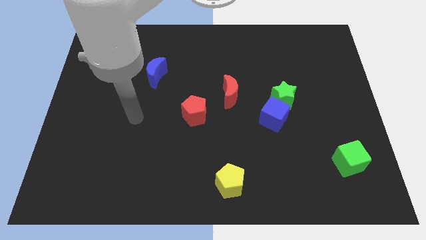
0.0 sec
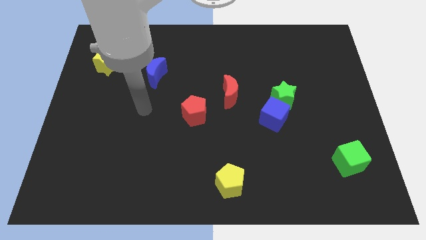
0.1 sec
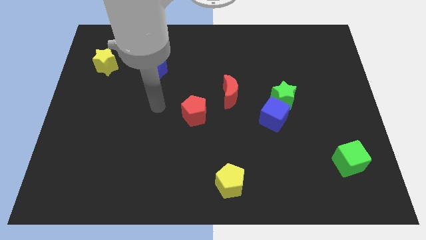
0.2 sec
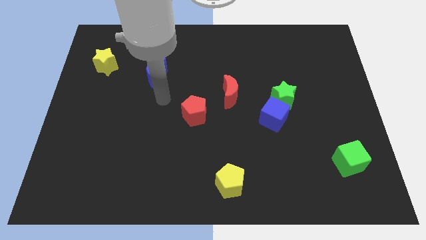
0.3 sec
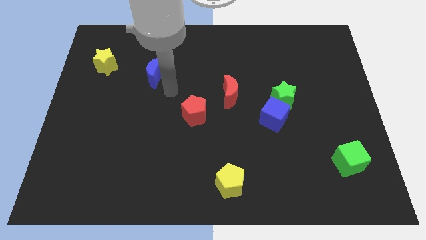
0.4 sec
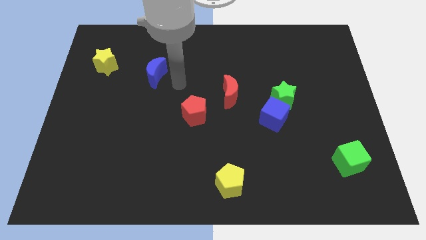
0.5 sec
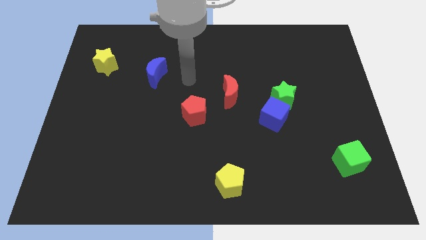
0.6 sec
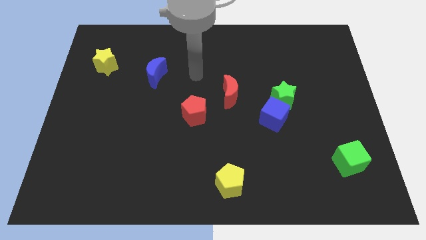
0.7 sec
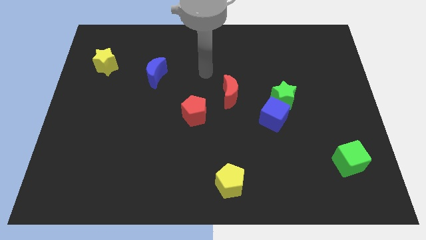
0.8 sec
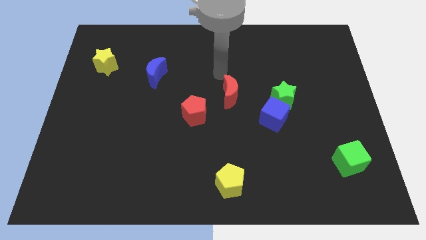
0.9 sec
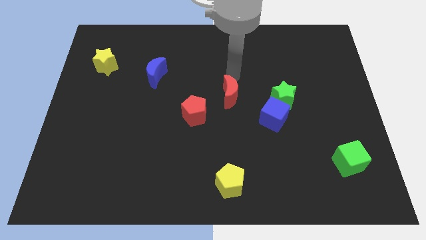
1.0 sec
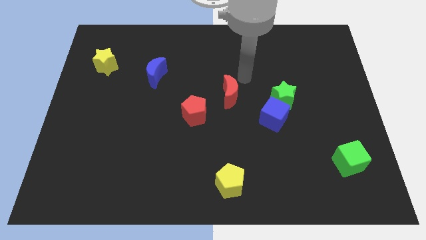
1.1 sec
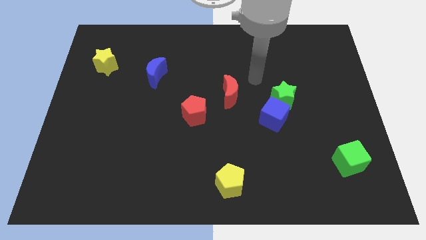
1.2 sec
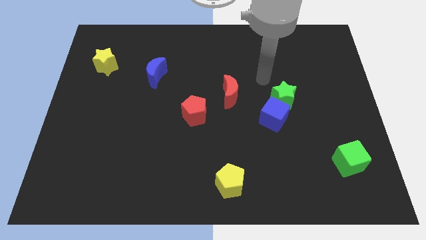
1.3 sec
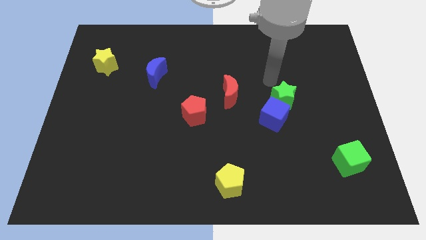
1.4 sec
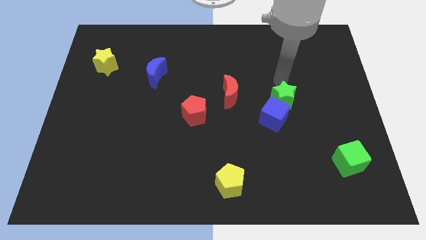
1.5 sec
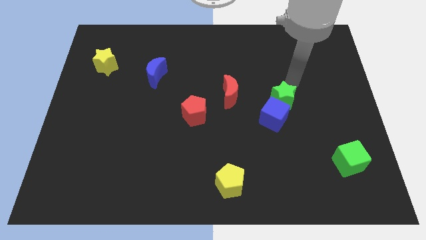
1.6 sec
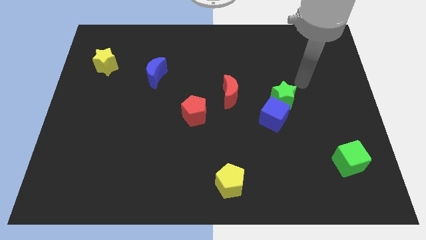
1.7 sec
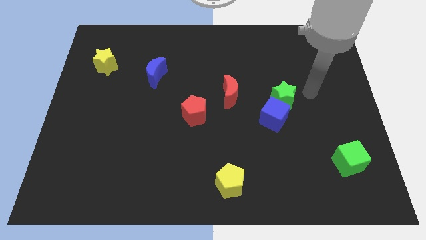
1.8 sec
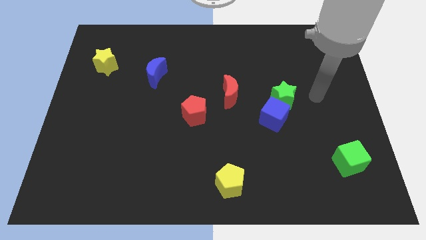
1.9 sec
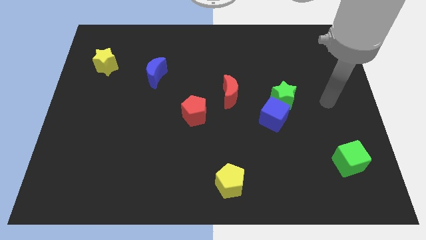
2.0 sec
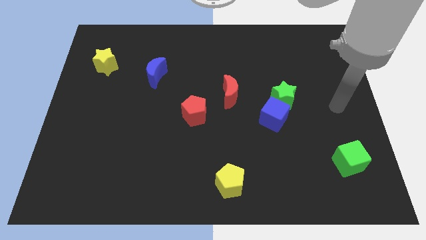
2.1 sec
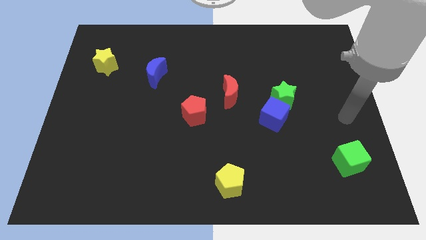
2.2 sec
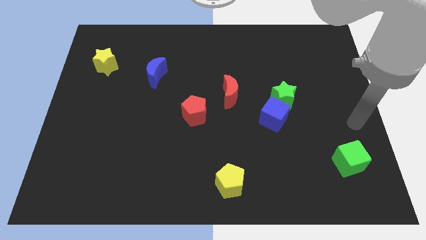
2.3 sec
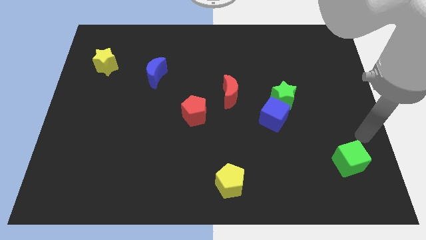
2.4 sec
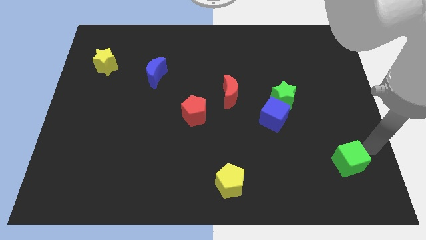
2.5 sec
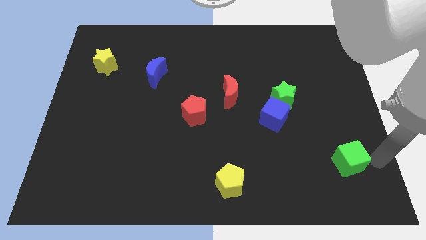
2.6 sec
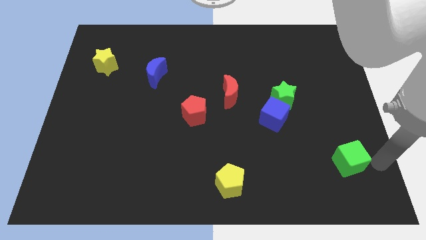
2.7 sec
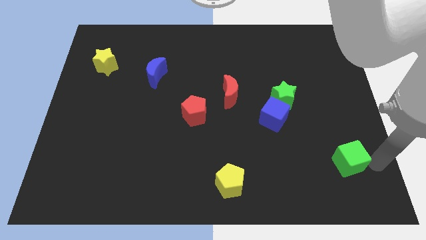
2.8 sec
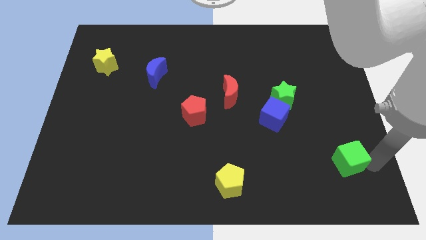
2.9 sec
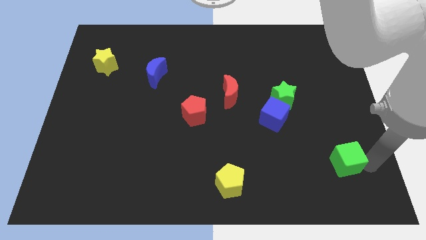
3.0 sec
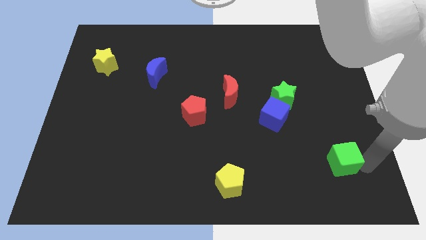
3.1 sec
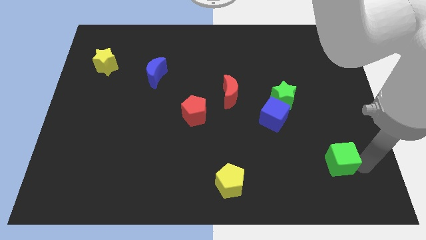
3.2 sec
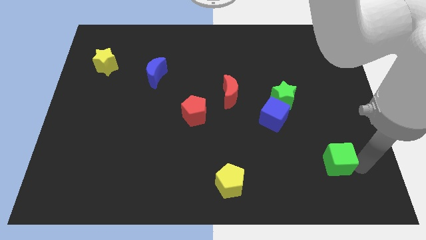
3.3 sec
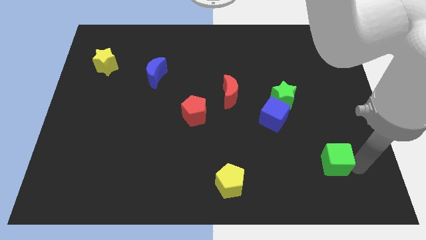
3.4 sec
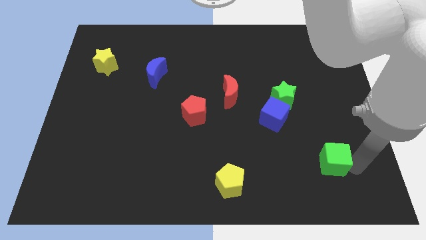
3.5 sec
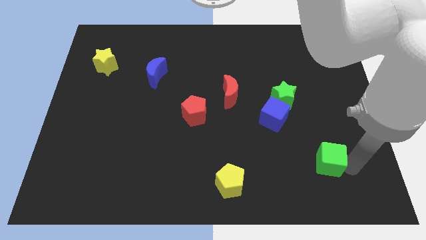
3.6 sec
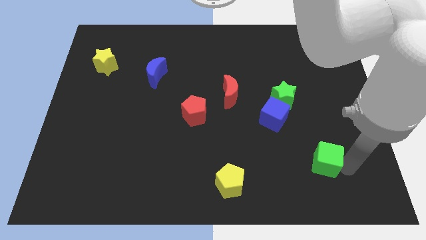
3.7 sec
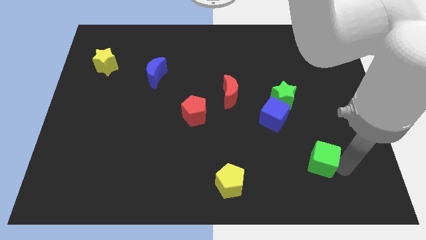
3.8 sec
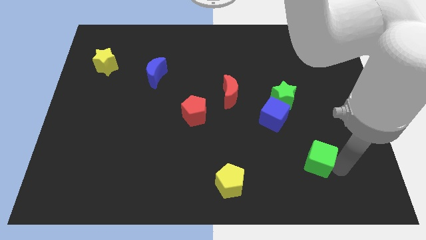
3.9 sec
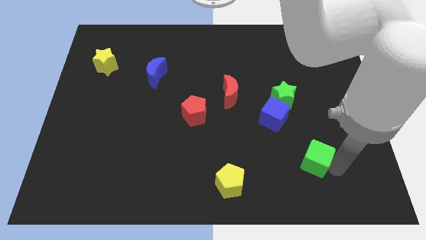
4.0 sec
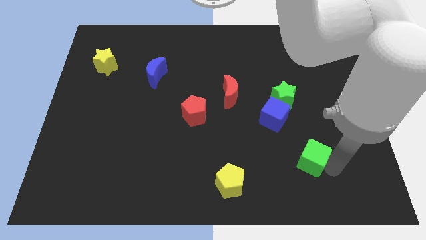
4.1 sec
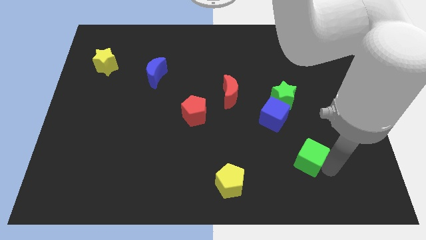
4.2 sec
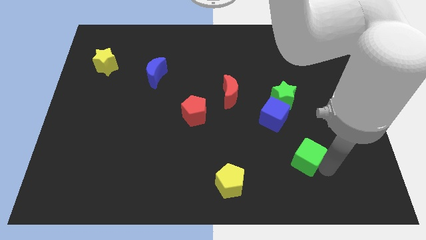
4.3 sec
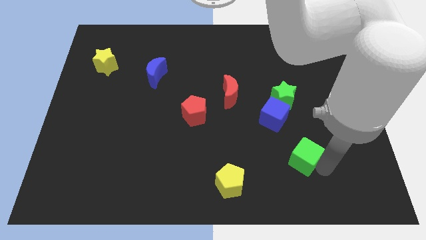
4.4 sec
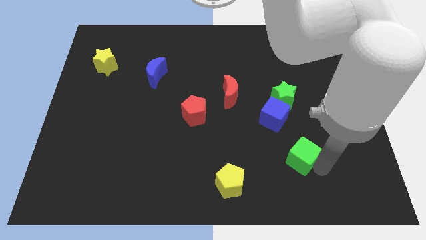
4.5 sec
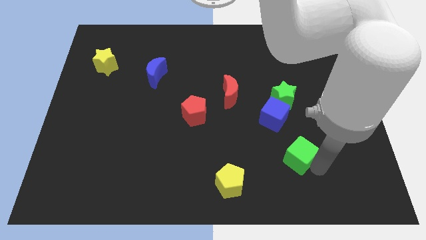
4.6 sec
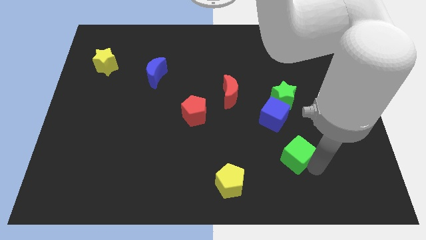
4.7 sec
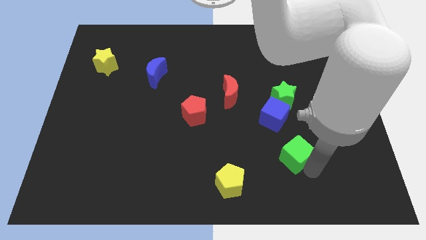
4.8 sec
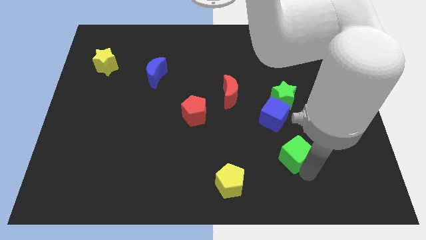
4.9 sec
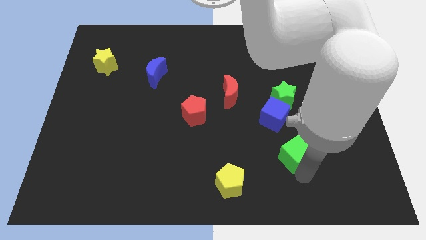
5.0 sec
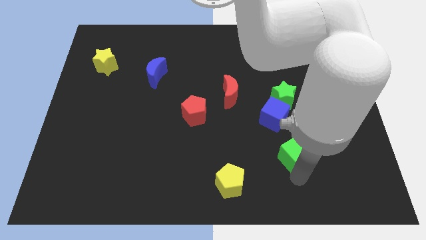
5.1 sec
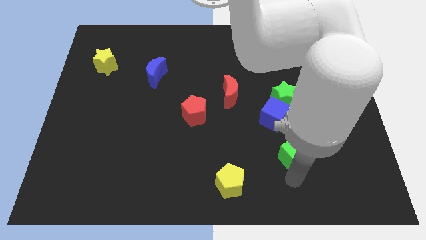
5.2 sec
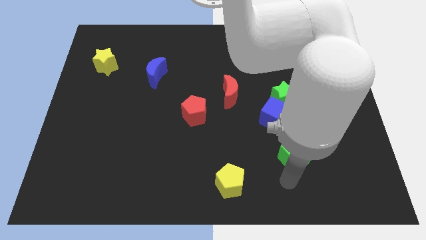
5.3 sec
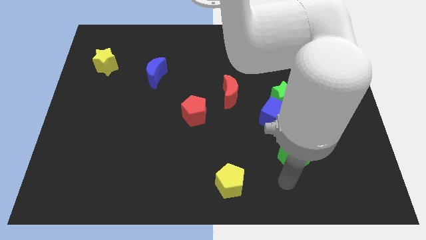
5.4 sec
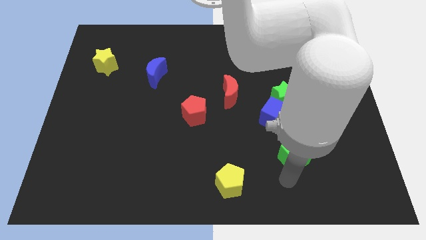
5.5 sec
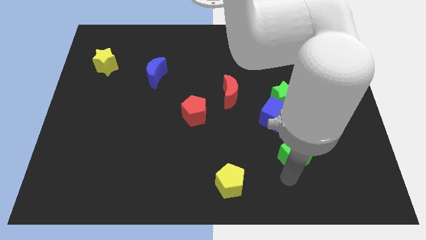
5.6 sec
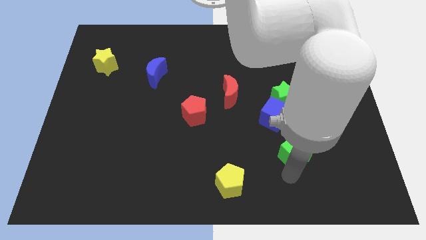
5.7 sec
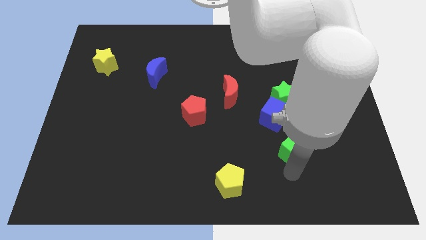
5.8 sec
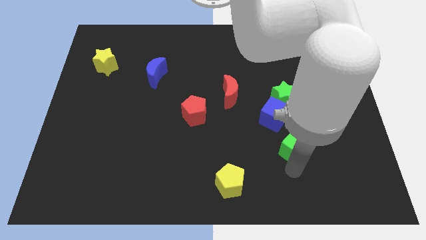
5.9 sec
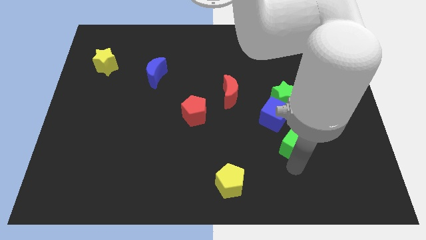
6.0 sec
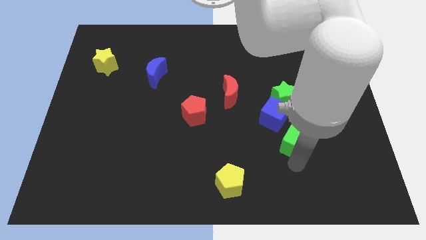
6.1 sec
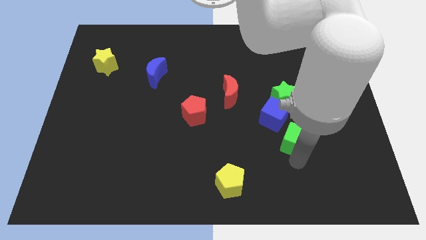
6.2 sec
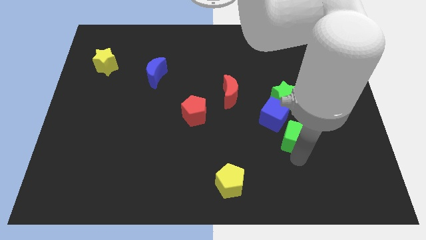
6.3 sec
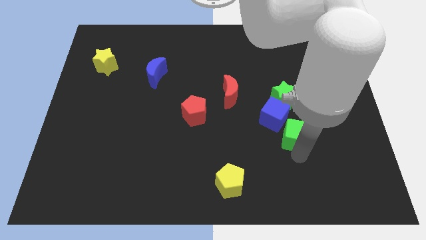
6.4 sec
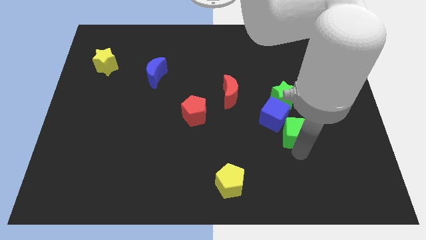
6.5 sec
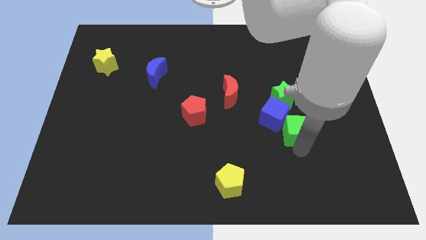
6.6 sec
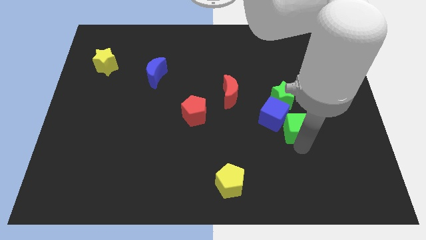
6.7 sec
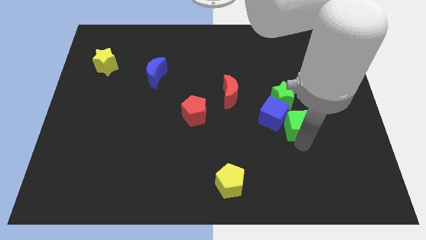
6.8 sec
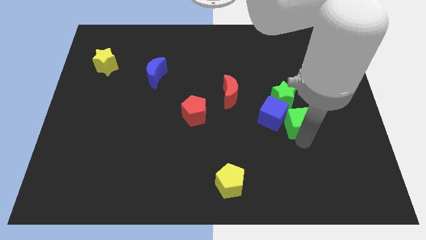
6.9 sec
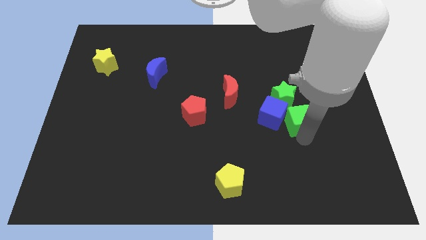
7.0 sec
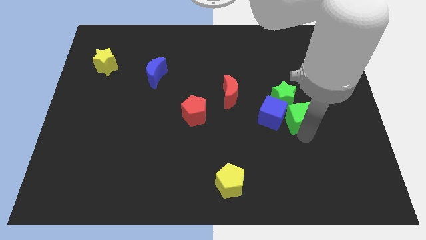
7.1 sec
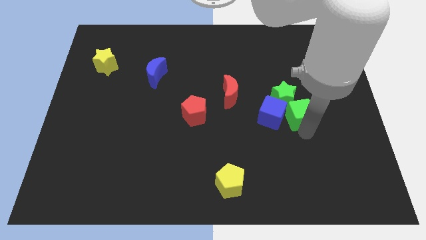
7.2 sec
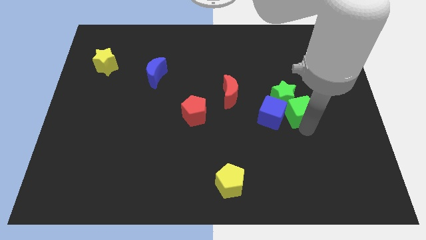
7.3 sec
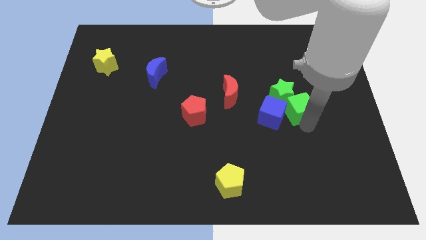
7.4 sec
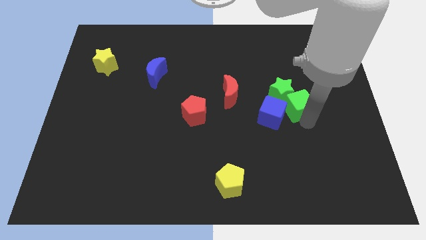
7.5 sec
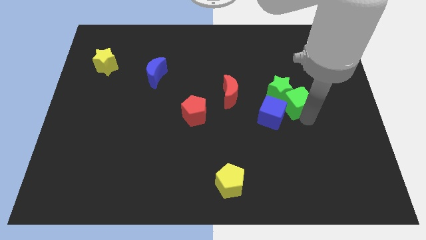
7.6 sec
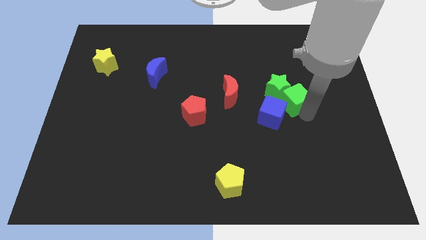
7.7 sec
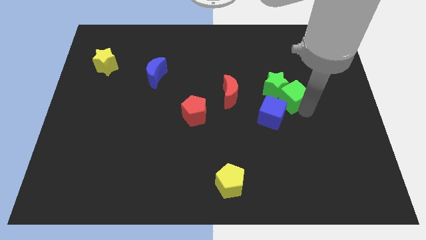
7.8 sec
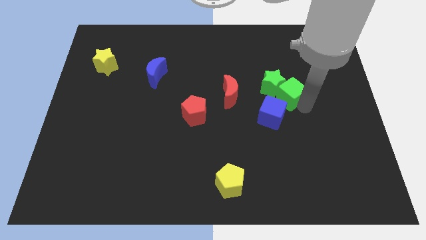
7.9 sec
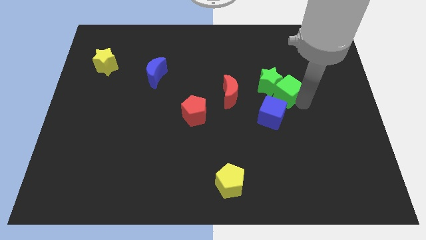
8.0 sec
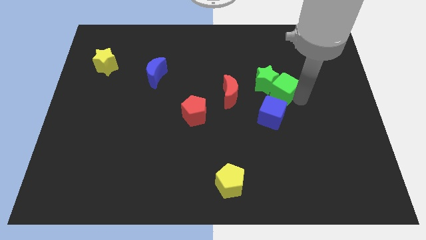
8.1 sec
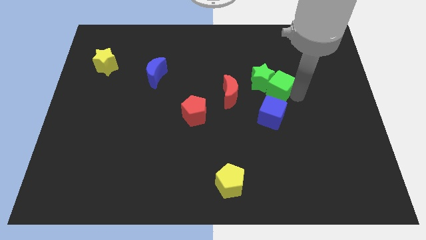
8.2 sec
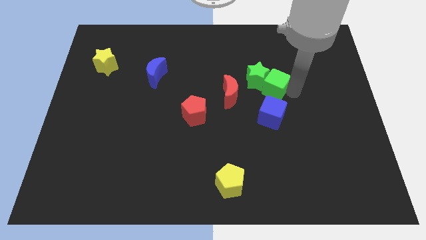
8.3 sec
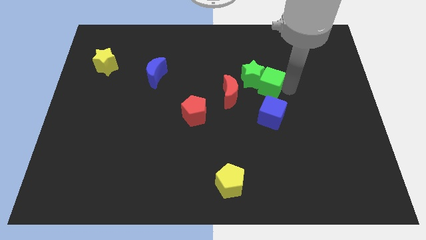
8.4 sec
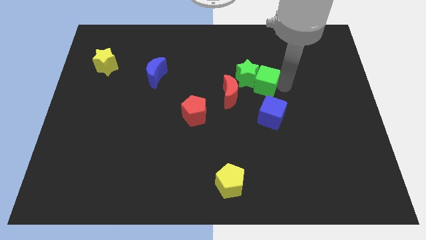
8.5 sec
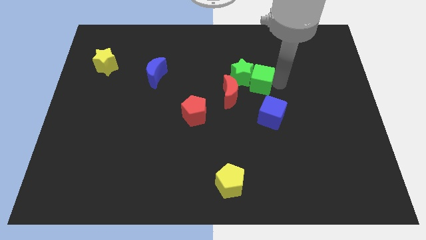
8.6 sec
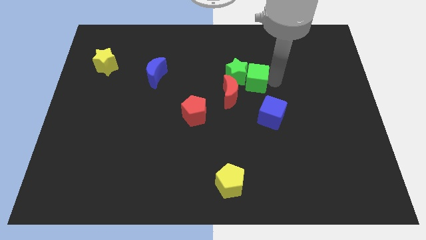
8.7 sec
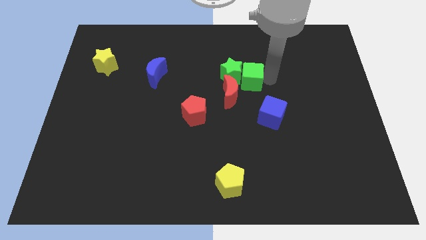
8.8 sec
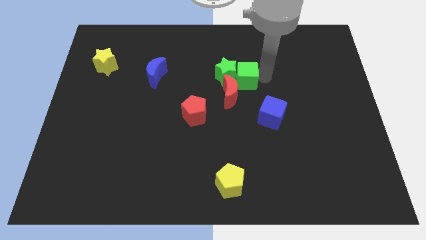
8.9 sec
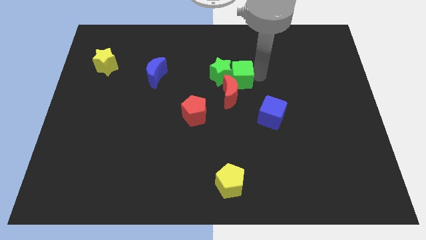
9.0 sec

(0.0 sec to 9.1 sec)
move the green cube towards the red moon
